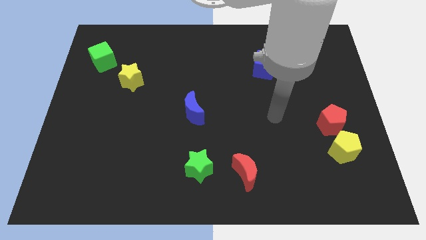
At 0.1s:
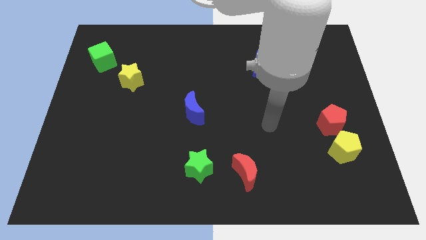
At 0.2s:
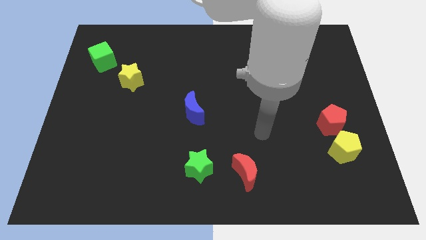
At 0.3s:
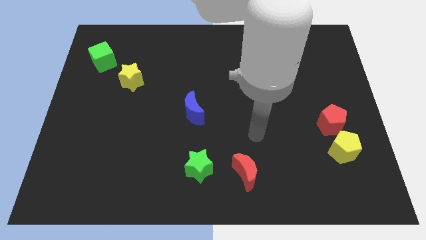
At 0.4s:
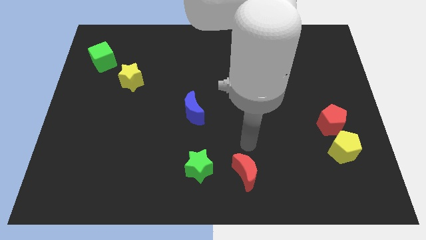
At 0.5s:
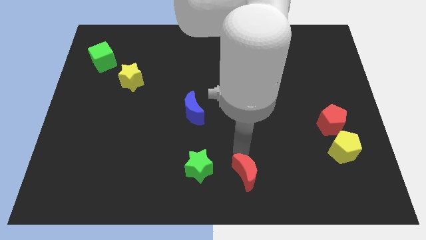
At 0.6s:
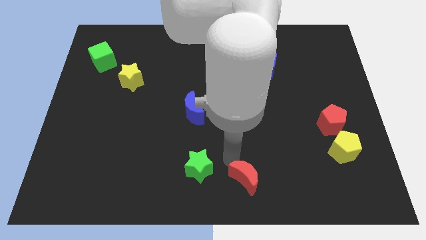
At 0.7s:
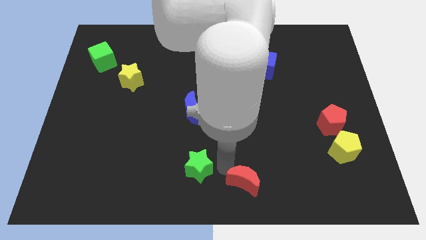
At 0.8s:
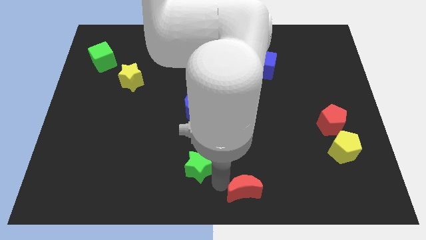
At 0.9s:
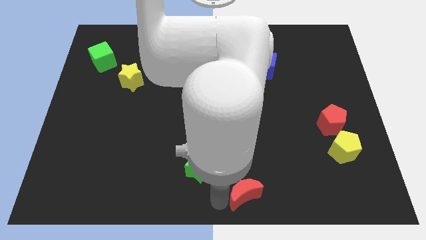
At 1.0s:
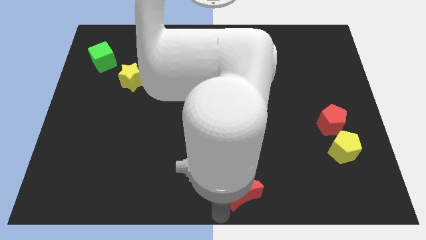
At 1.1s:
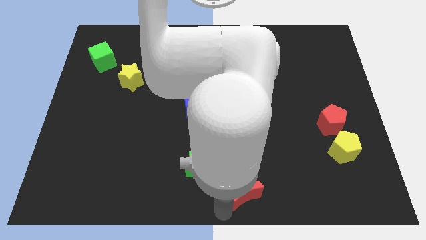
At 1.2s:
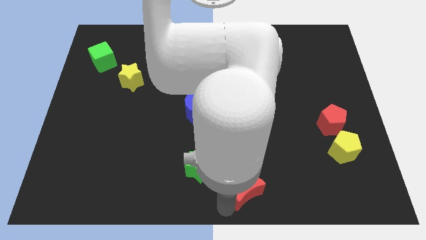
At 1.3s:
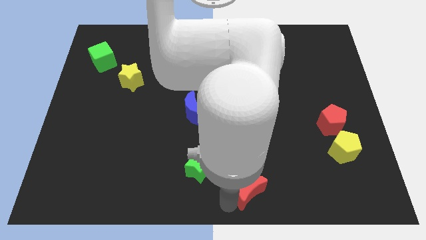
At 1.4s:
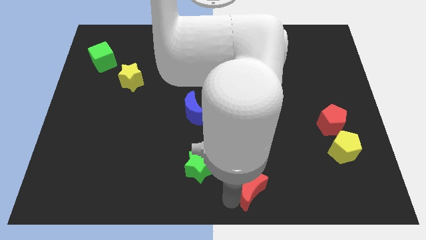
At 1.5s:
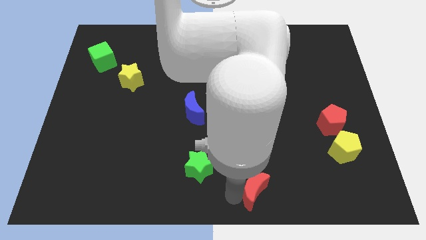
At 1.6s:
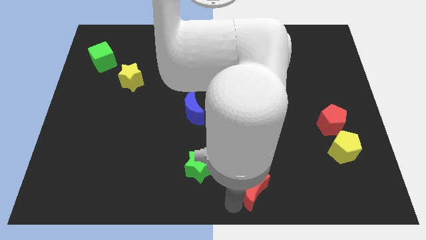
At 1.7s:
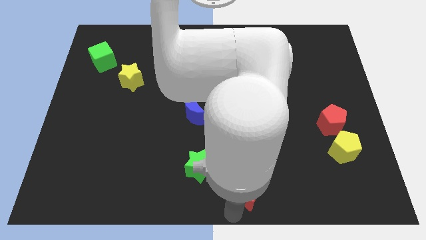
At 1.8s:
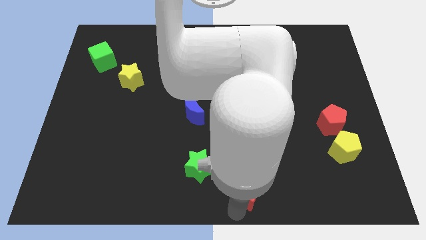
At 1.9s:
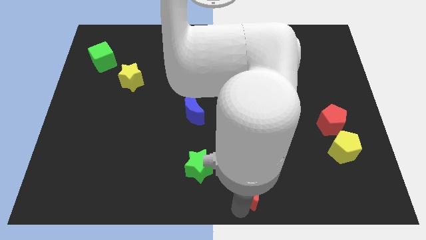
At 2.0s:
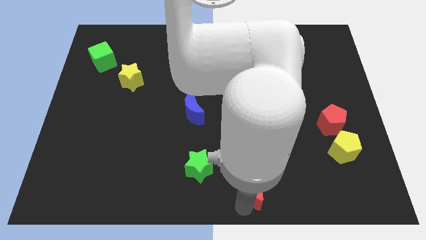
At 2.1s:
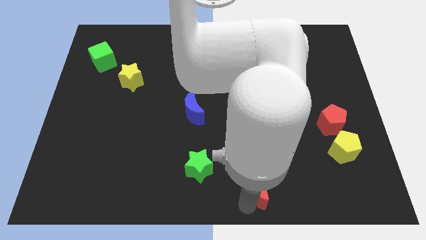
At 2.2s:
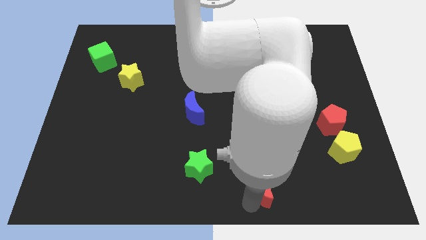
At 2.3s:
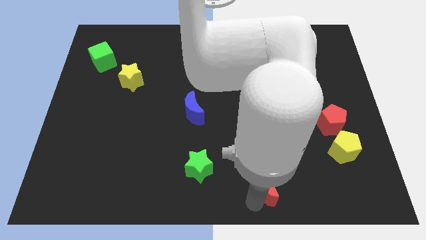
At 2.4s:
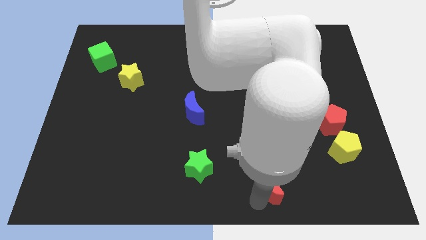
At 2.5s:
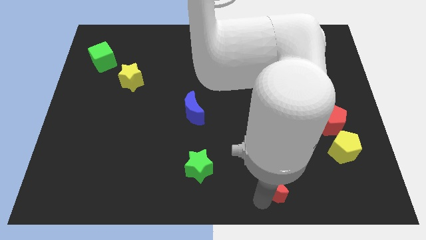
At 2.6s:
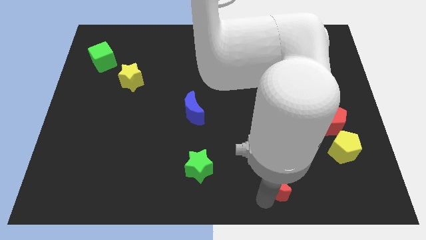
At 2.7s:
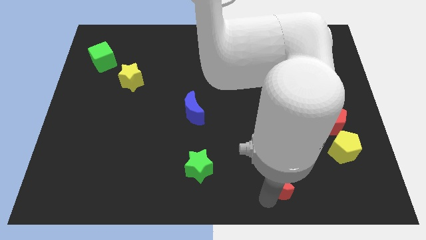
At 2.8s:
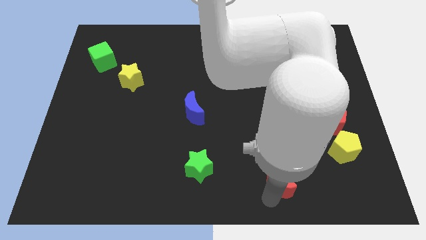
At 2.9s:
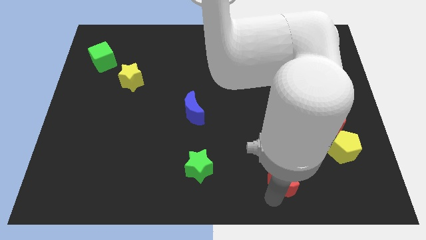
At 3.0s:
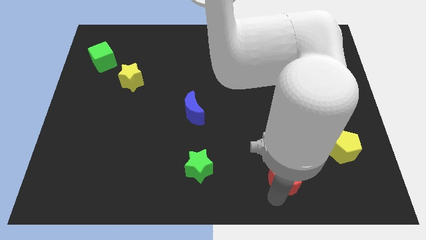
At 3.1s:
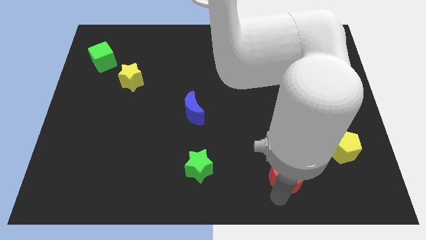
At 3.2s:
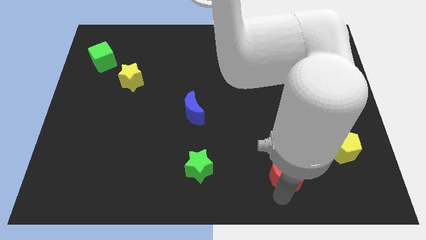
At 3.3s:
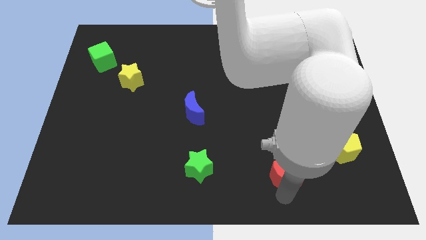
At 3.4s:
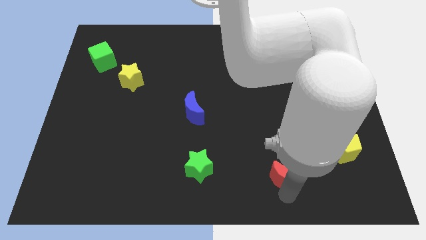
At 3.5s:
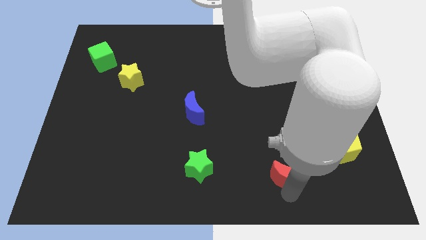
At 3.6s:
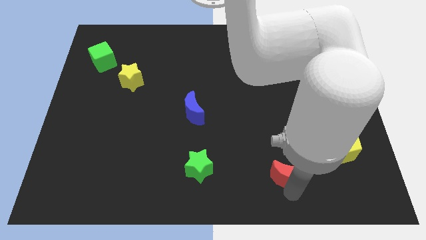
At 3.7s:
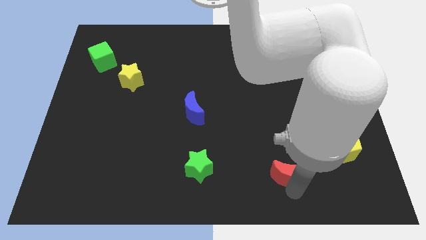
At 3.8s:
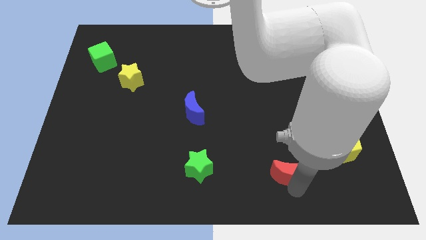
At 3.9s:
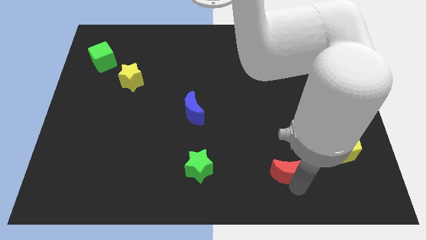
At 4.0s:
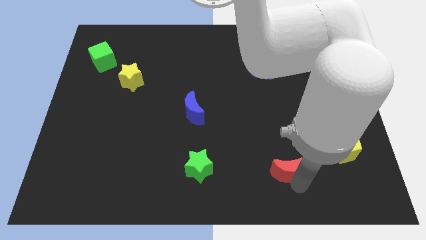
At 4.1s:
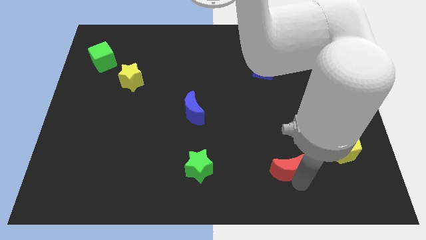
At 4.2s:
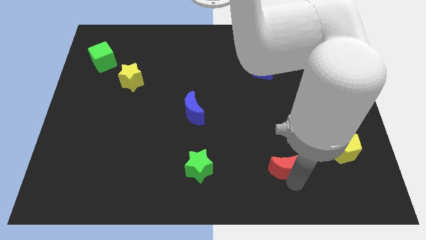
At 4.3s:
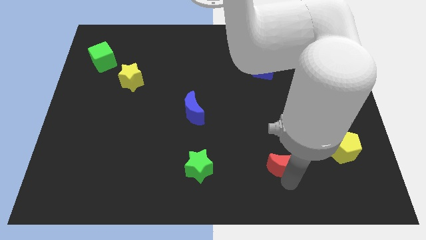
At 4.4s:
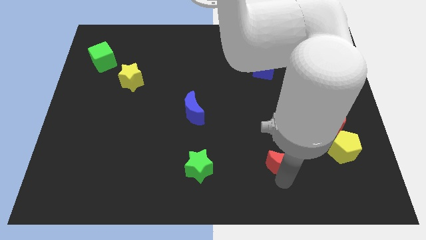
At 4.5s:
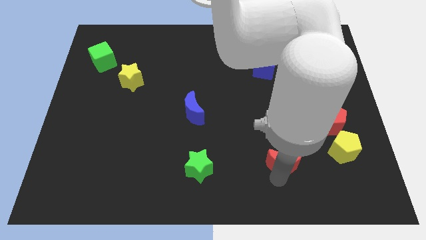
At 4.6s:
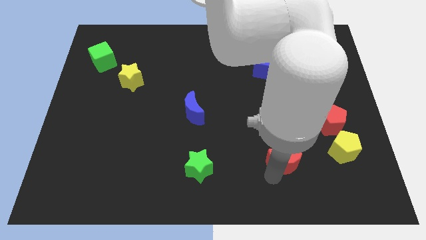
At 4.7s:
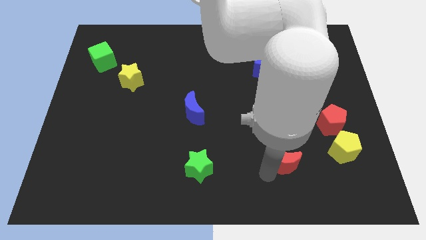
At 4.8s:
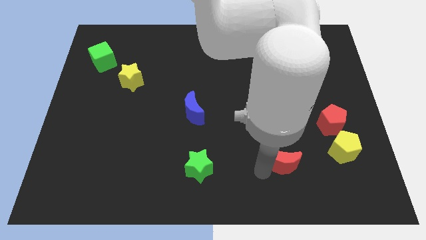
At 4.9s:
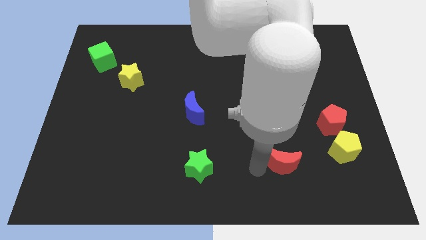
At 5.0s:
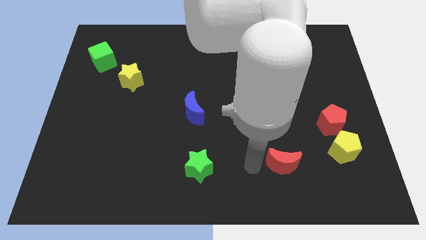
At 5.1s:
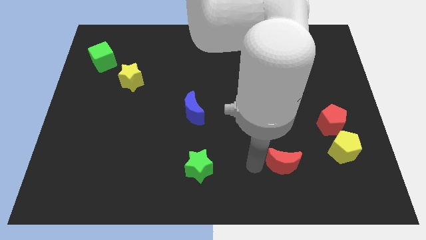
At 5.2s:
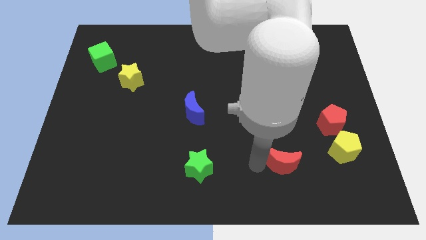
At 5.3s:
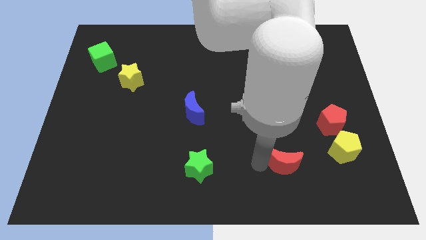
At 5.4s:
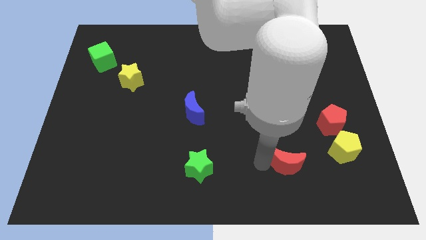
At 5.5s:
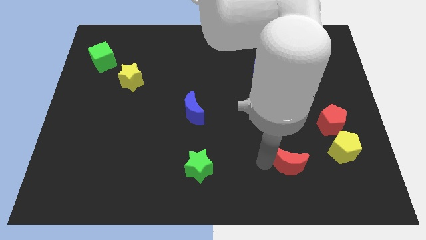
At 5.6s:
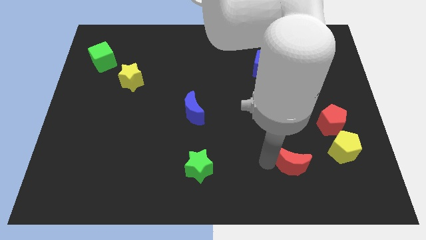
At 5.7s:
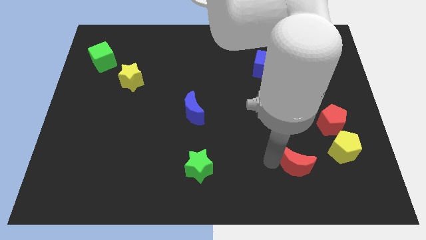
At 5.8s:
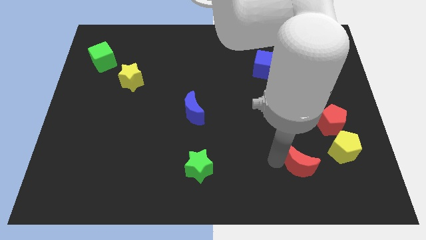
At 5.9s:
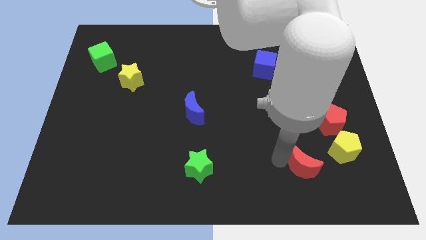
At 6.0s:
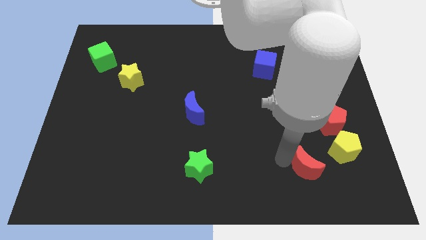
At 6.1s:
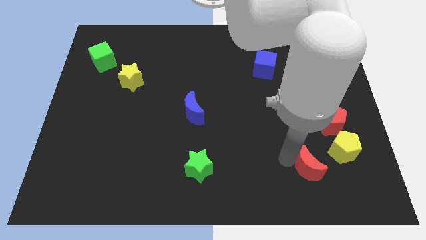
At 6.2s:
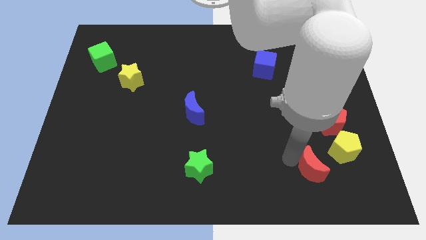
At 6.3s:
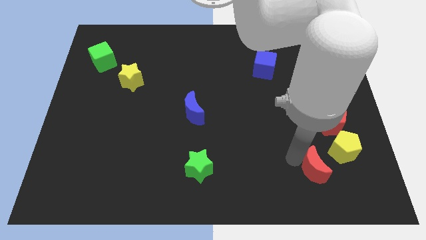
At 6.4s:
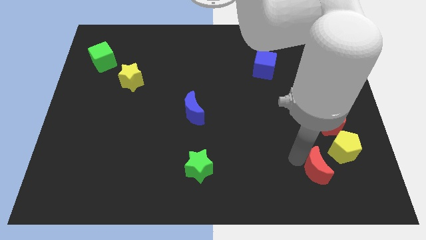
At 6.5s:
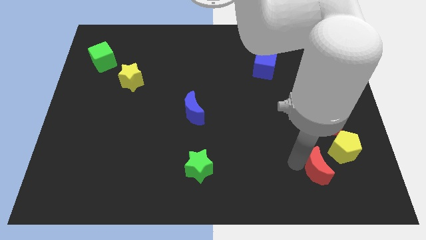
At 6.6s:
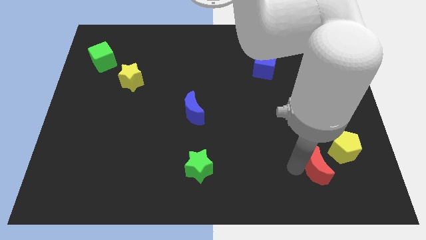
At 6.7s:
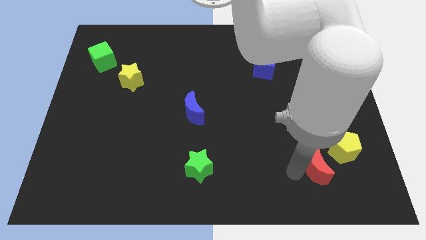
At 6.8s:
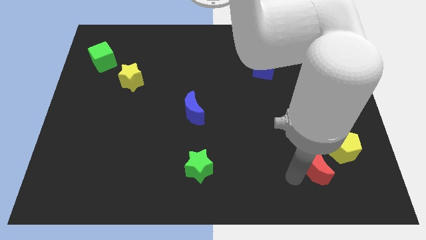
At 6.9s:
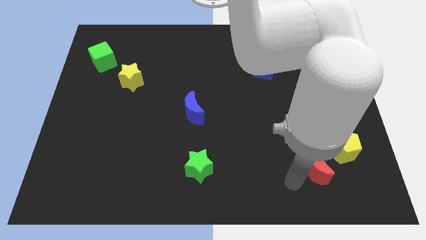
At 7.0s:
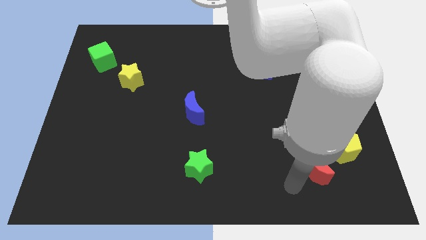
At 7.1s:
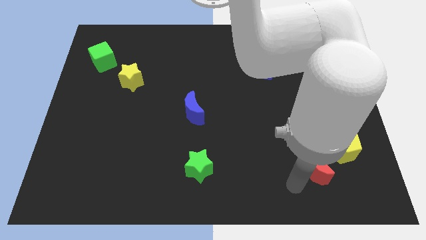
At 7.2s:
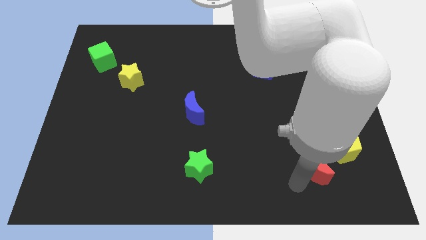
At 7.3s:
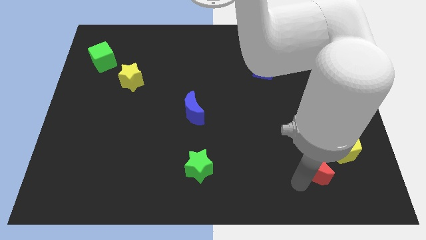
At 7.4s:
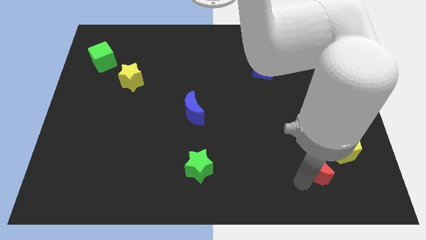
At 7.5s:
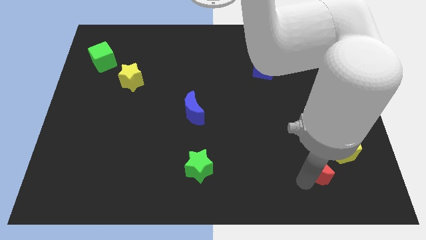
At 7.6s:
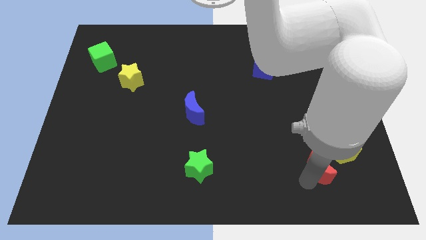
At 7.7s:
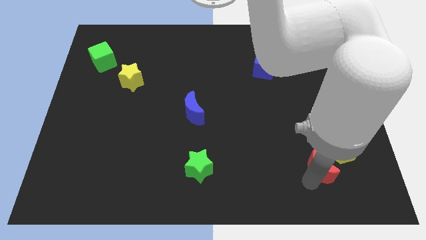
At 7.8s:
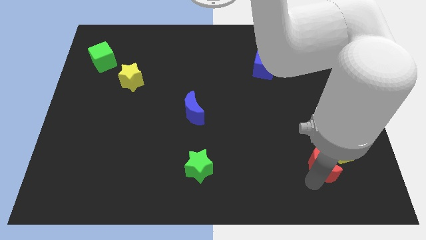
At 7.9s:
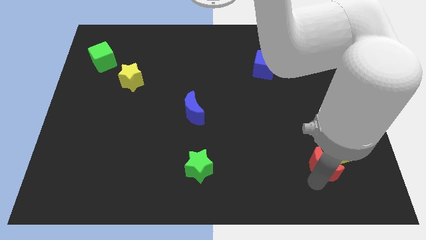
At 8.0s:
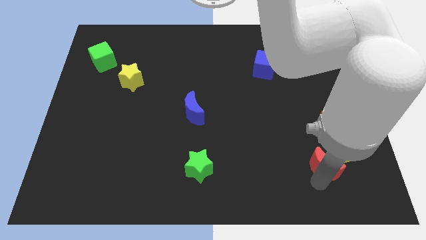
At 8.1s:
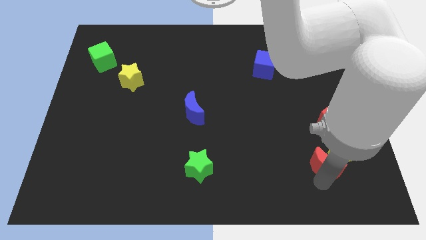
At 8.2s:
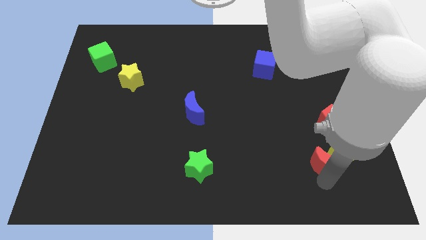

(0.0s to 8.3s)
push the red moon towards the yellow pentagon

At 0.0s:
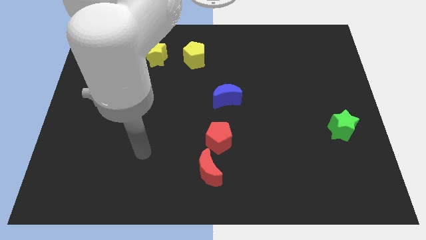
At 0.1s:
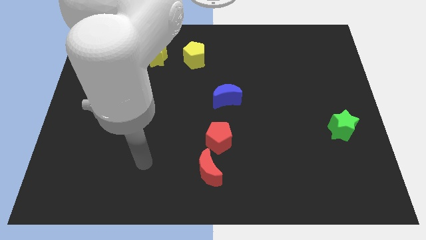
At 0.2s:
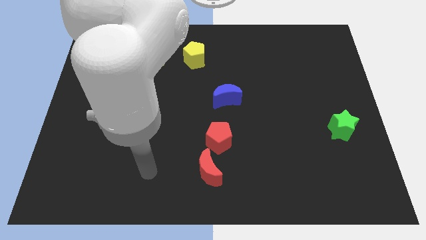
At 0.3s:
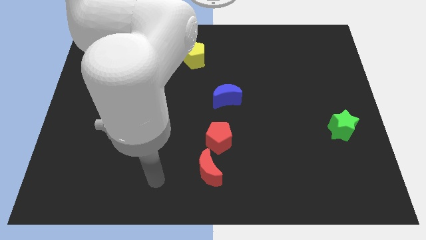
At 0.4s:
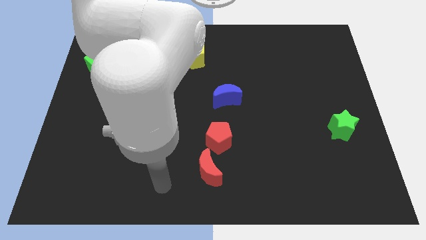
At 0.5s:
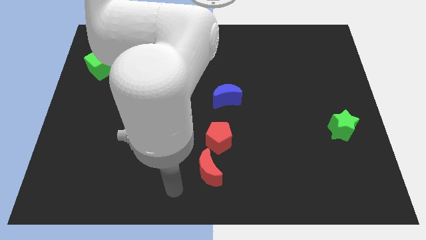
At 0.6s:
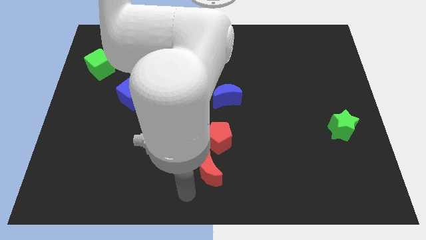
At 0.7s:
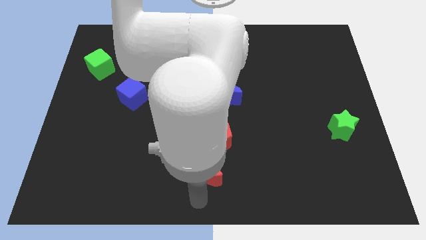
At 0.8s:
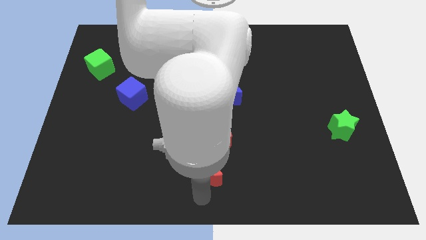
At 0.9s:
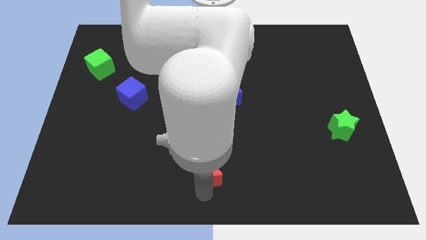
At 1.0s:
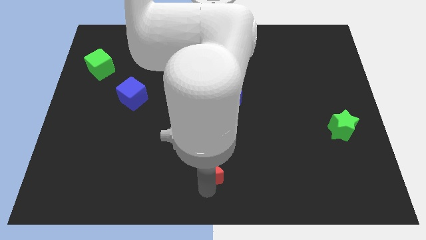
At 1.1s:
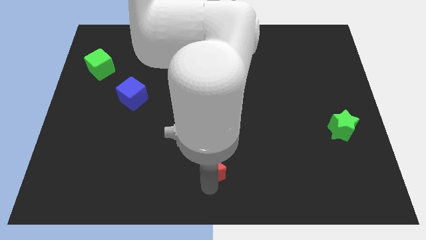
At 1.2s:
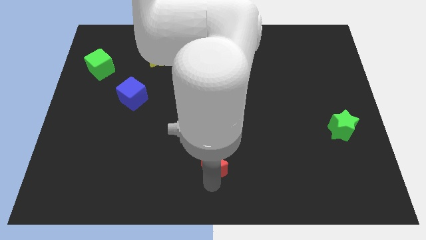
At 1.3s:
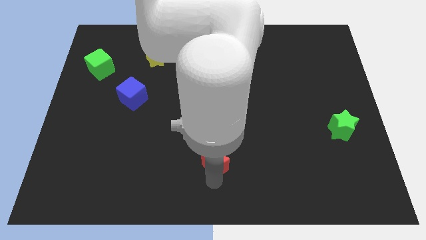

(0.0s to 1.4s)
move the red moon close to the red pentagon
